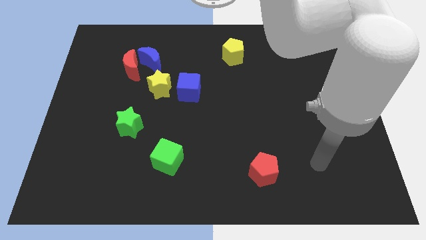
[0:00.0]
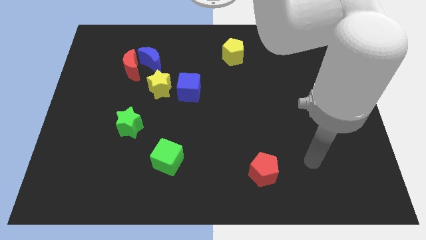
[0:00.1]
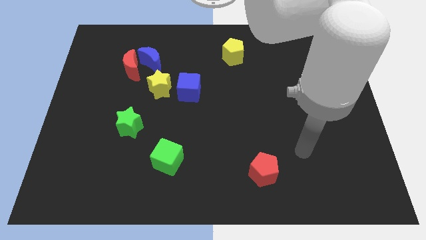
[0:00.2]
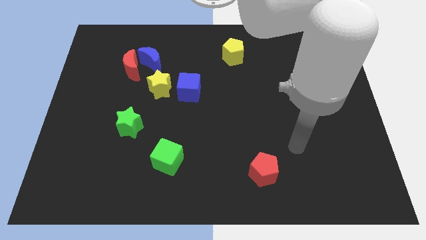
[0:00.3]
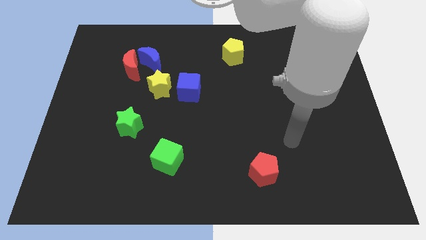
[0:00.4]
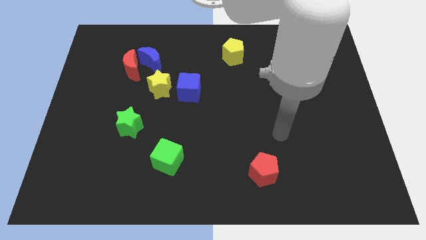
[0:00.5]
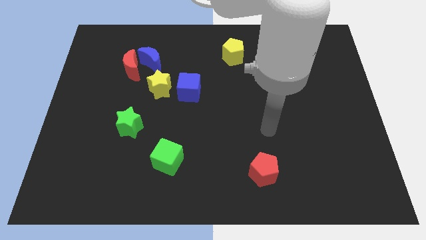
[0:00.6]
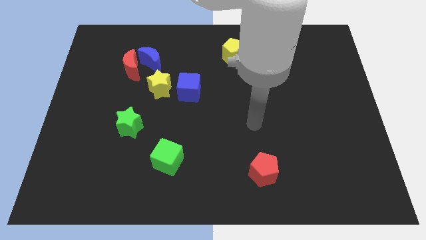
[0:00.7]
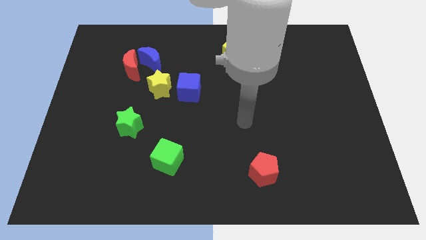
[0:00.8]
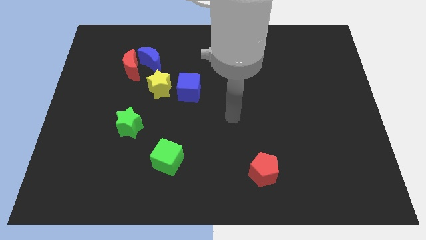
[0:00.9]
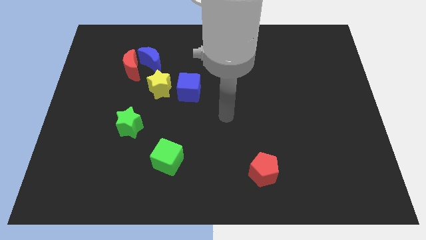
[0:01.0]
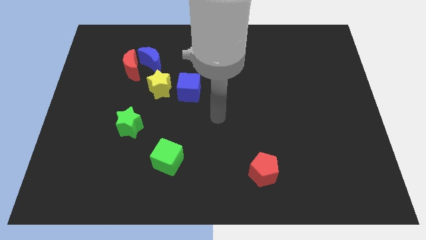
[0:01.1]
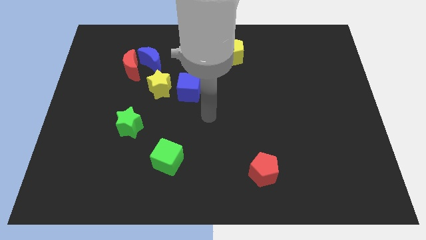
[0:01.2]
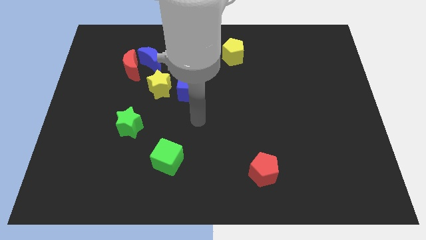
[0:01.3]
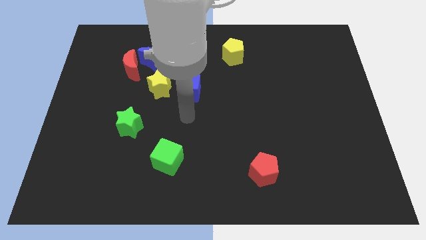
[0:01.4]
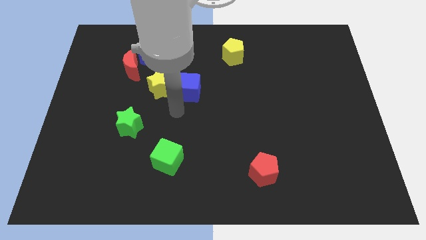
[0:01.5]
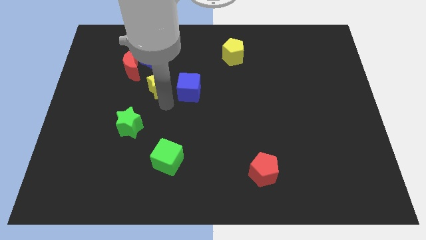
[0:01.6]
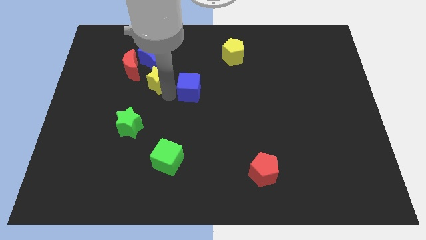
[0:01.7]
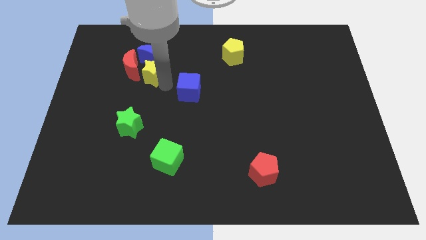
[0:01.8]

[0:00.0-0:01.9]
pull the blue cube apart from the yellow star

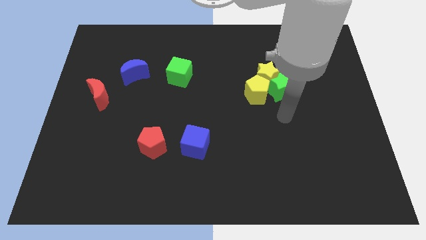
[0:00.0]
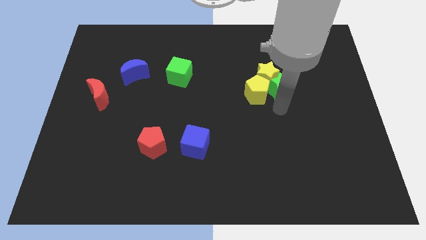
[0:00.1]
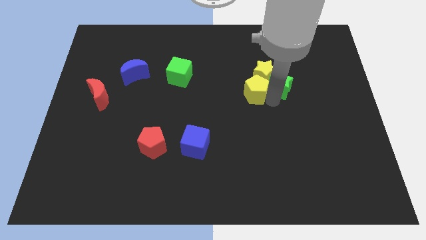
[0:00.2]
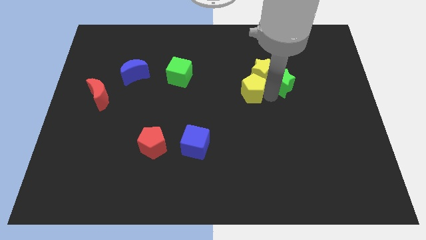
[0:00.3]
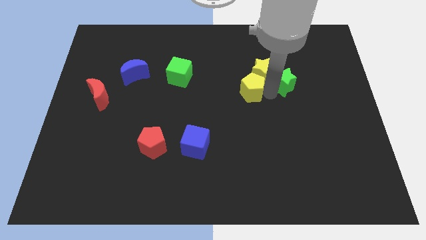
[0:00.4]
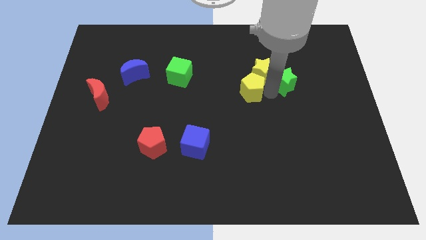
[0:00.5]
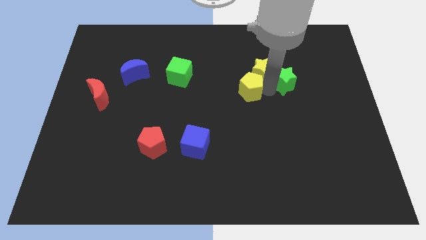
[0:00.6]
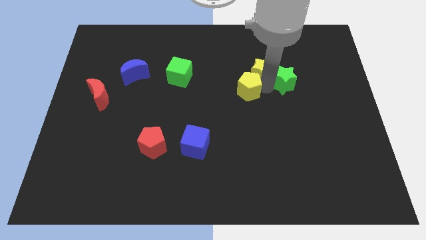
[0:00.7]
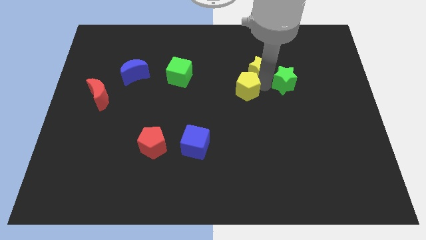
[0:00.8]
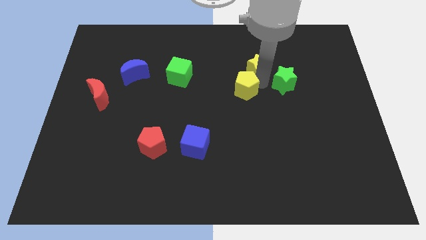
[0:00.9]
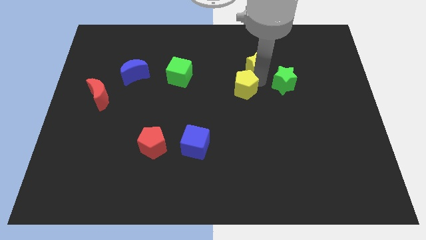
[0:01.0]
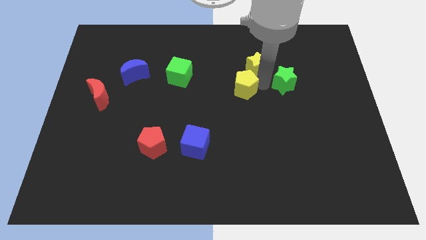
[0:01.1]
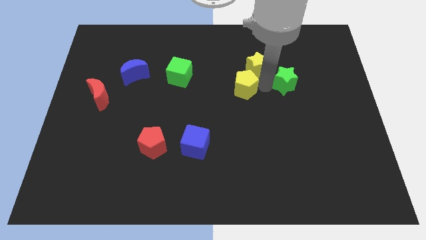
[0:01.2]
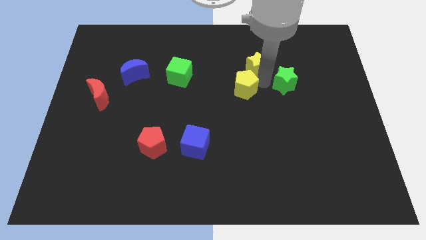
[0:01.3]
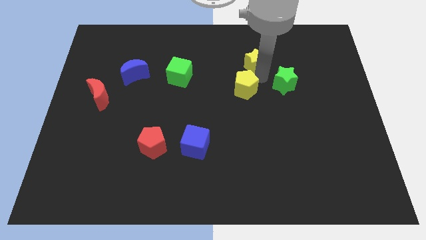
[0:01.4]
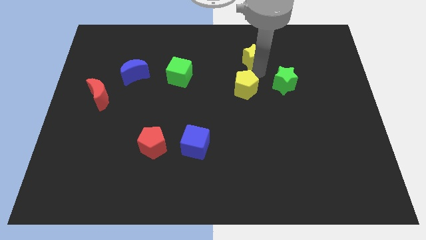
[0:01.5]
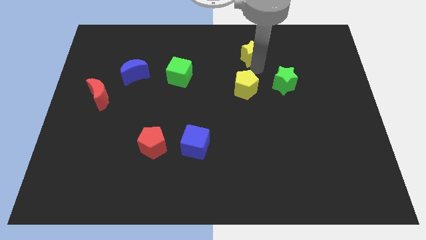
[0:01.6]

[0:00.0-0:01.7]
pull the yellow star apart from the yellow pentagon and green star

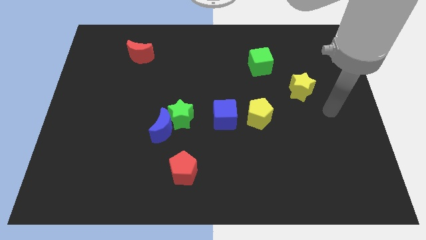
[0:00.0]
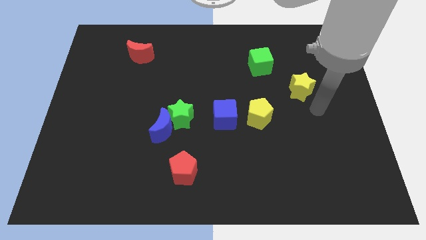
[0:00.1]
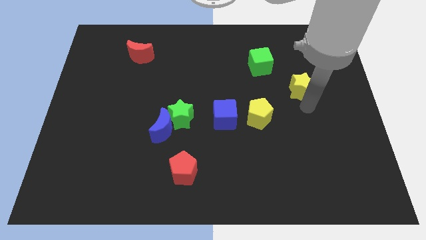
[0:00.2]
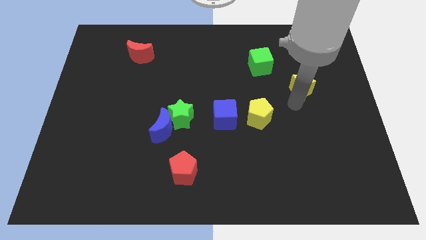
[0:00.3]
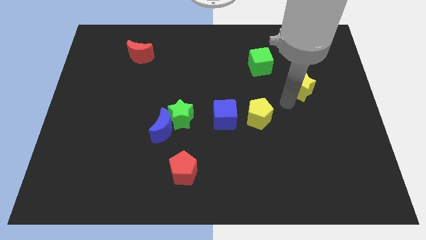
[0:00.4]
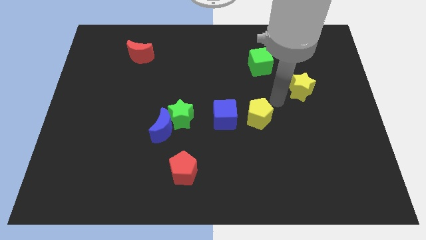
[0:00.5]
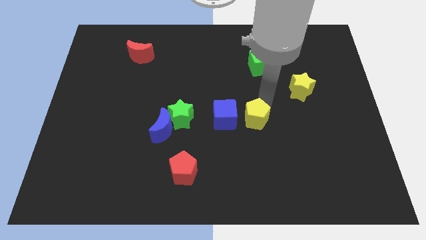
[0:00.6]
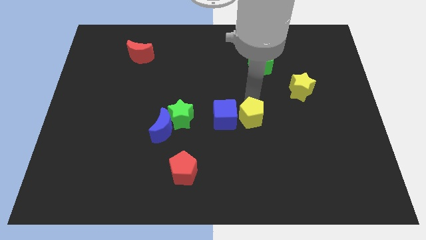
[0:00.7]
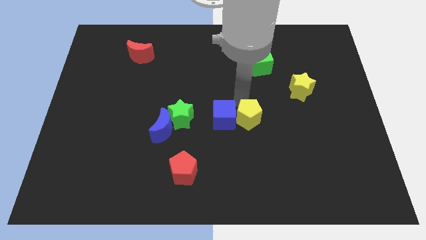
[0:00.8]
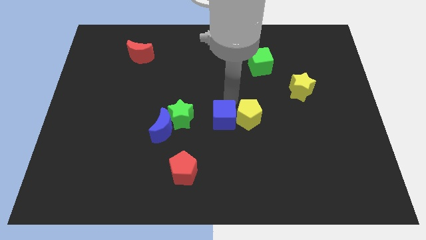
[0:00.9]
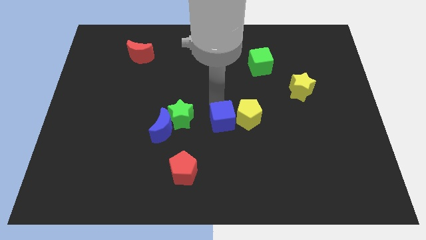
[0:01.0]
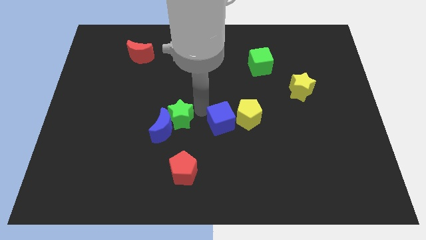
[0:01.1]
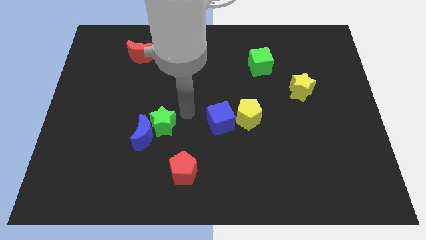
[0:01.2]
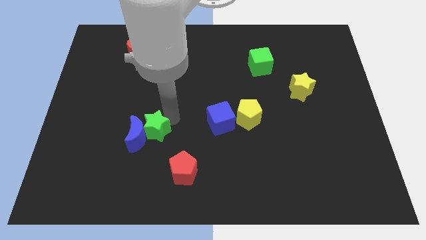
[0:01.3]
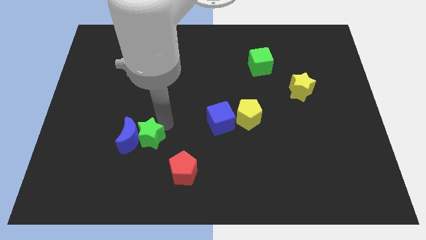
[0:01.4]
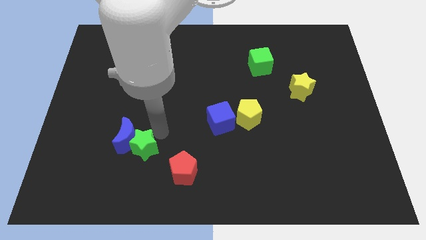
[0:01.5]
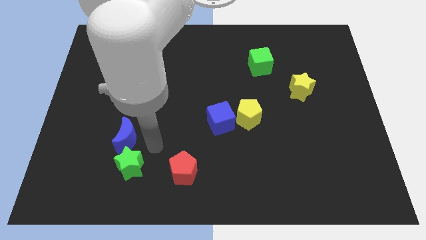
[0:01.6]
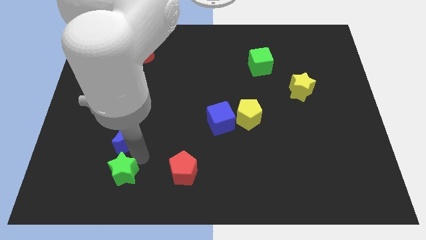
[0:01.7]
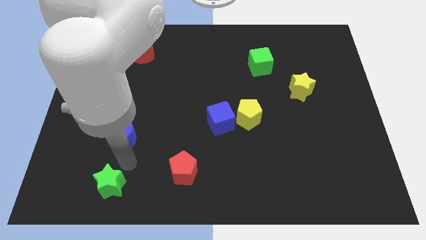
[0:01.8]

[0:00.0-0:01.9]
pull the blue moon apart from the green star

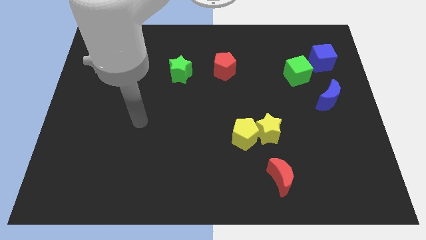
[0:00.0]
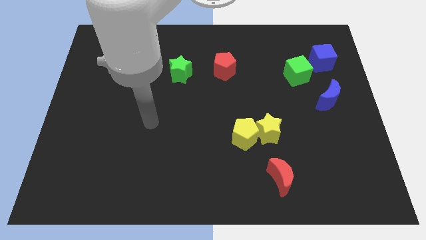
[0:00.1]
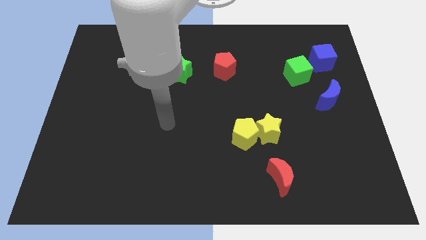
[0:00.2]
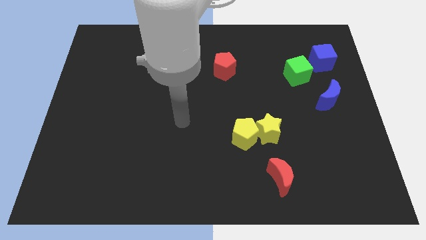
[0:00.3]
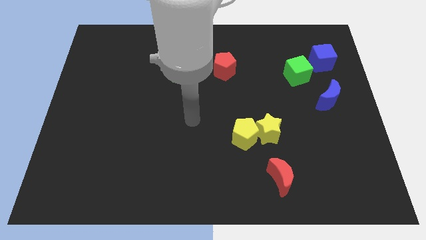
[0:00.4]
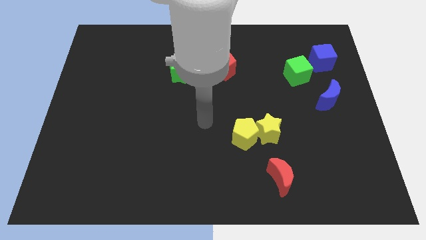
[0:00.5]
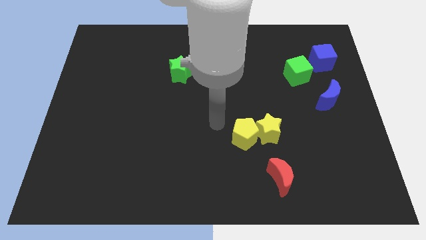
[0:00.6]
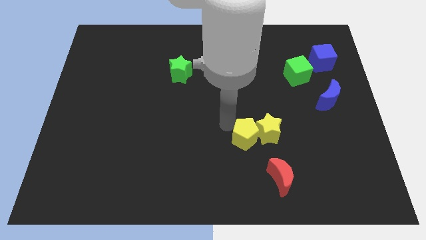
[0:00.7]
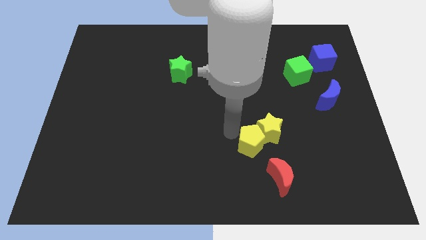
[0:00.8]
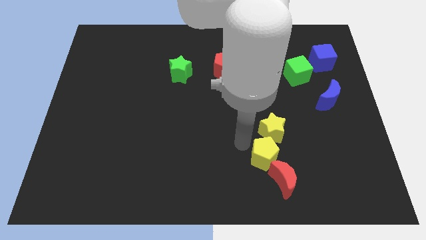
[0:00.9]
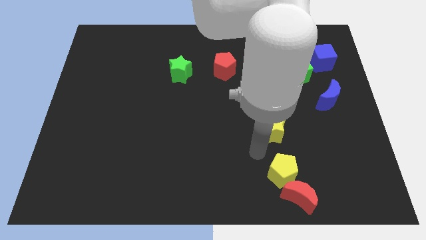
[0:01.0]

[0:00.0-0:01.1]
pull the yellow star apart from the yellow pentagon

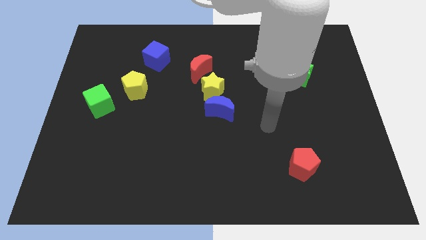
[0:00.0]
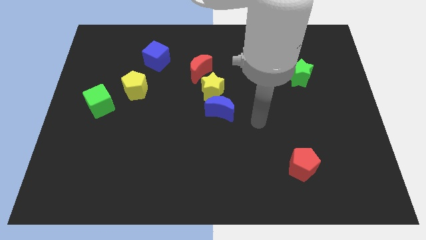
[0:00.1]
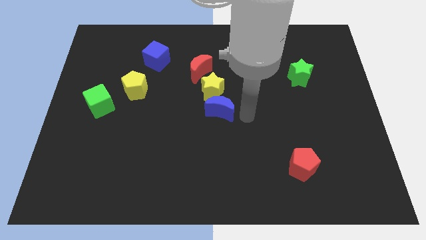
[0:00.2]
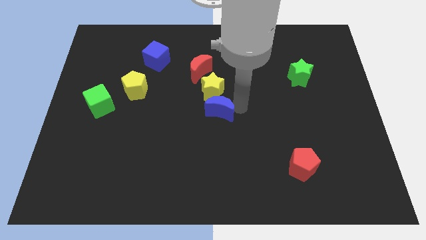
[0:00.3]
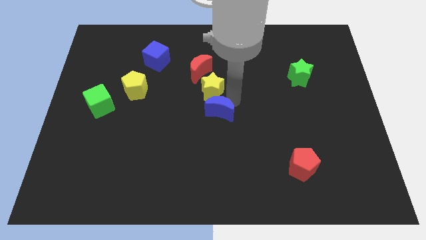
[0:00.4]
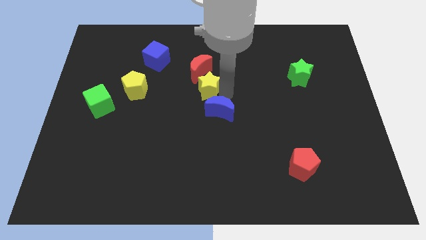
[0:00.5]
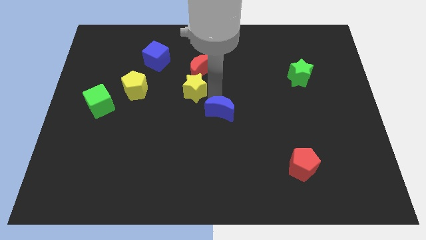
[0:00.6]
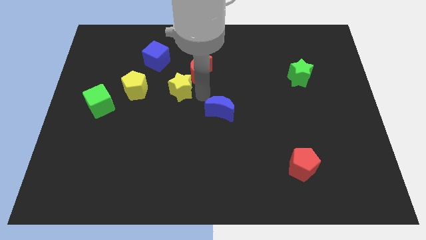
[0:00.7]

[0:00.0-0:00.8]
separate the blue moon from the yellow star

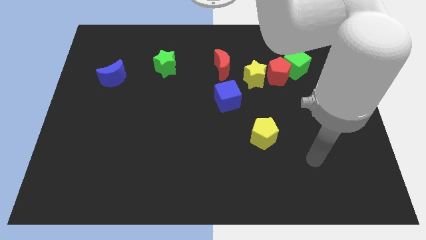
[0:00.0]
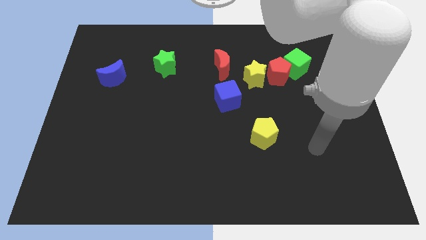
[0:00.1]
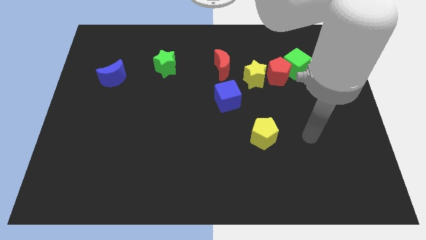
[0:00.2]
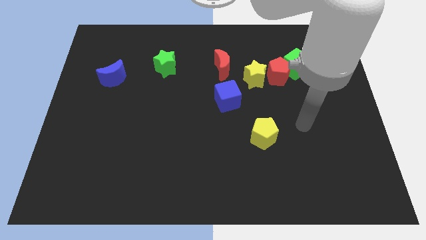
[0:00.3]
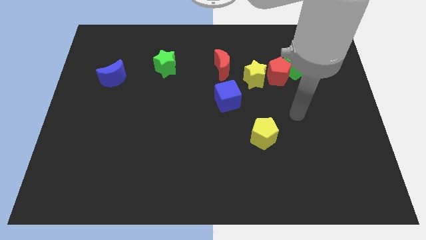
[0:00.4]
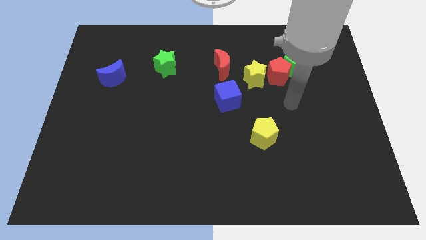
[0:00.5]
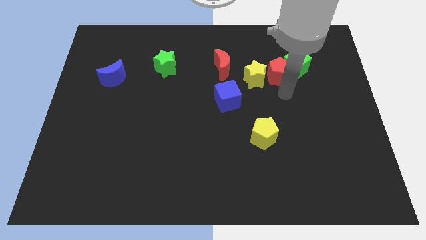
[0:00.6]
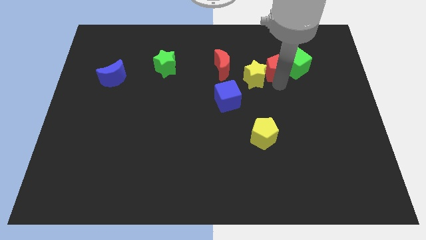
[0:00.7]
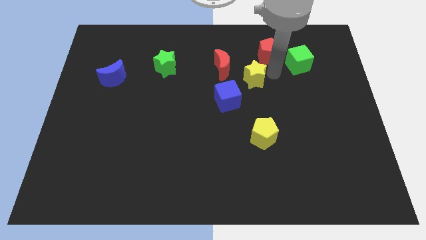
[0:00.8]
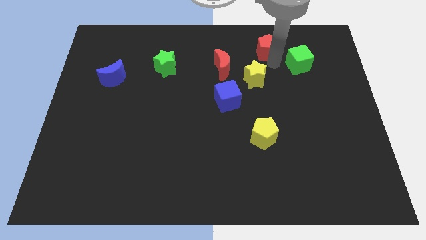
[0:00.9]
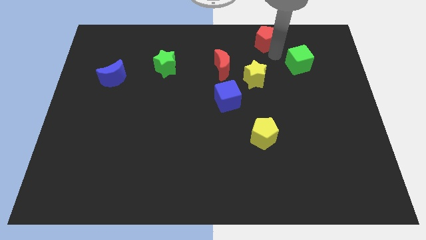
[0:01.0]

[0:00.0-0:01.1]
move the green cube away from the red pentagon

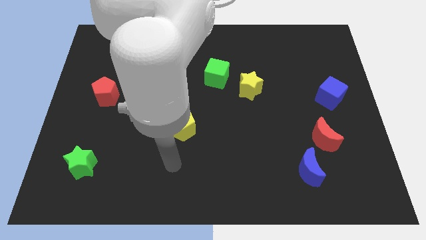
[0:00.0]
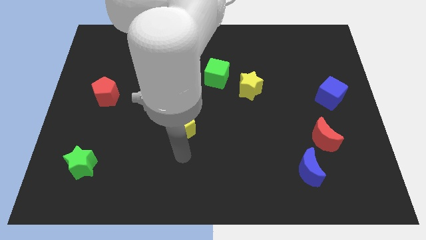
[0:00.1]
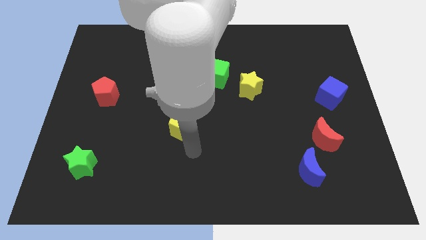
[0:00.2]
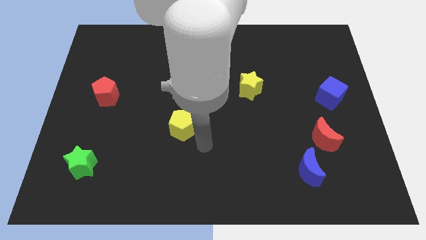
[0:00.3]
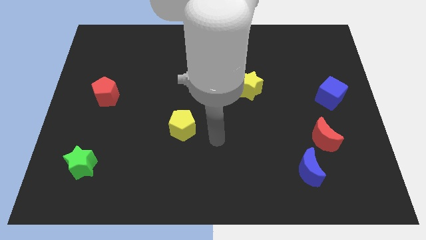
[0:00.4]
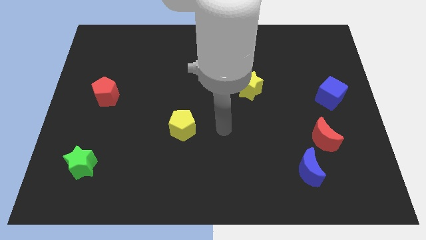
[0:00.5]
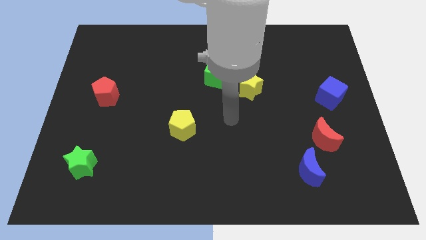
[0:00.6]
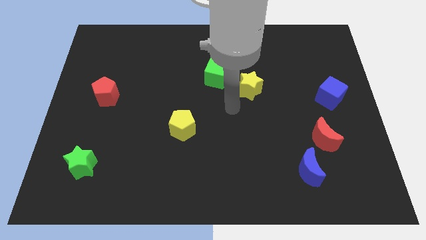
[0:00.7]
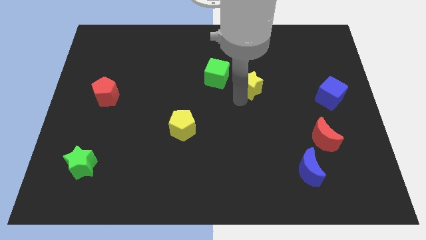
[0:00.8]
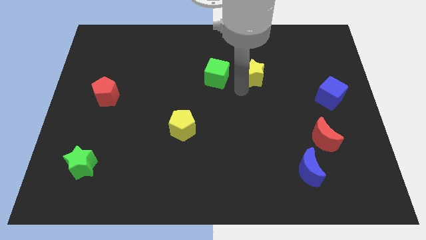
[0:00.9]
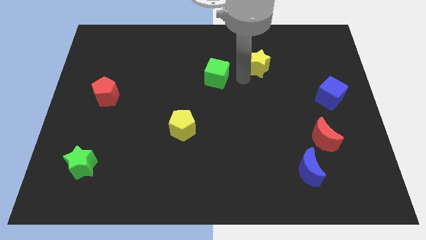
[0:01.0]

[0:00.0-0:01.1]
pull the green cube apart from the yellow star
